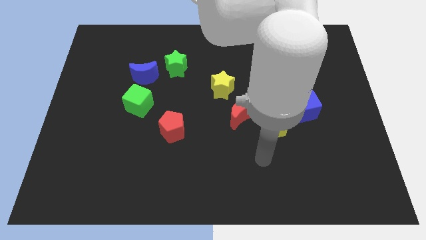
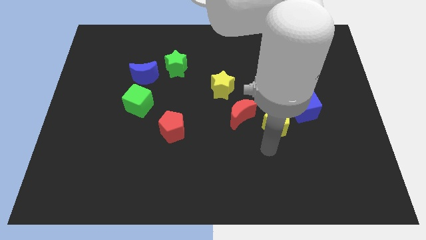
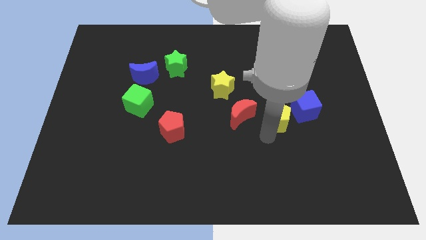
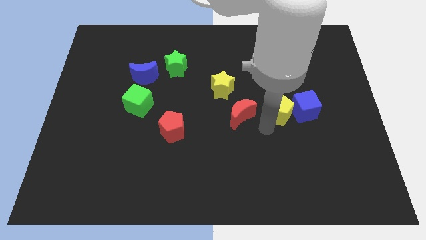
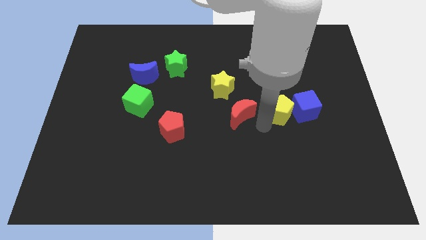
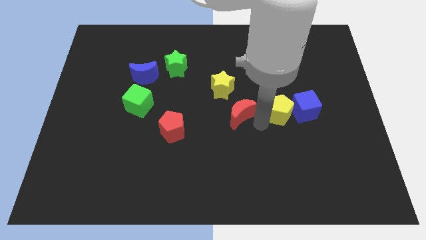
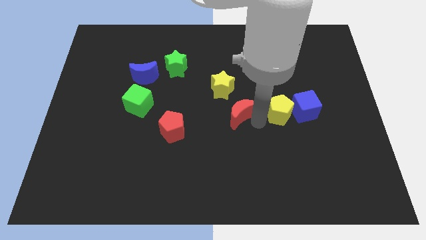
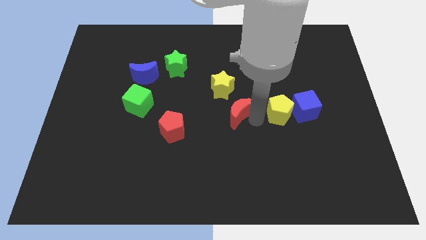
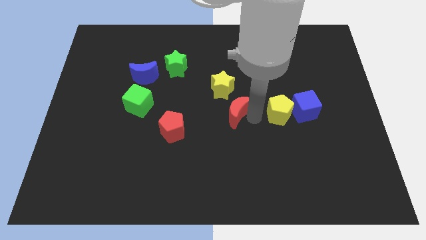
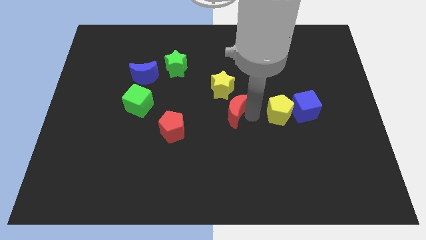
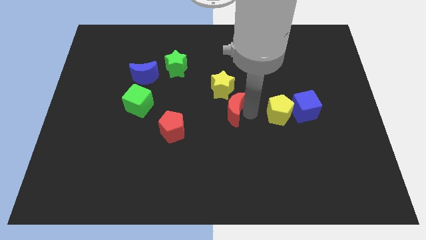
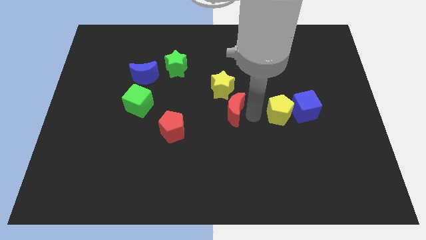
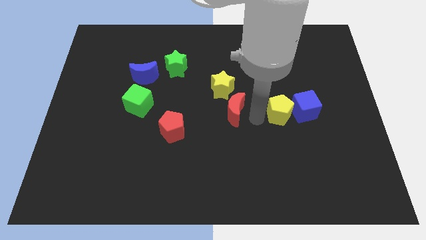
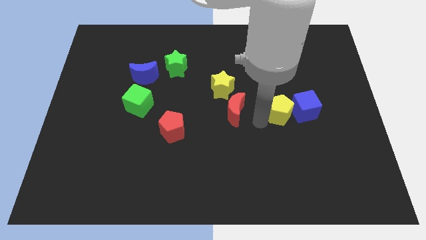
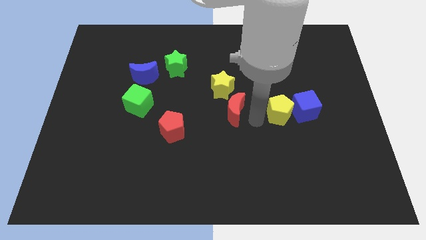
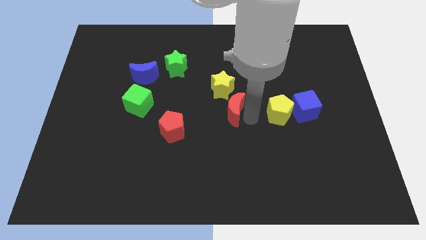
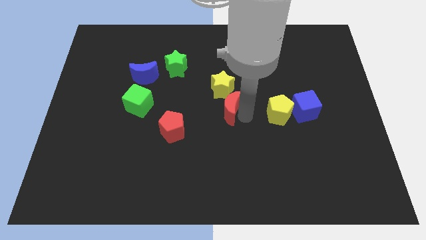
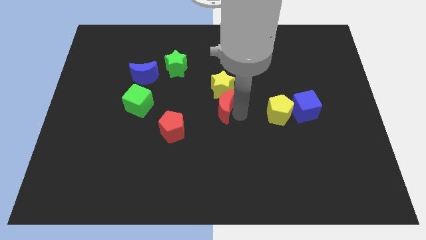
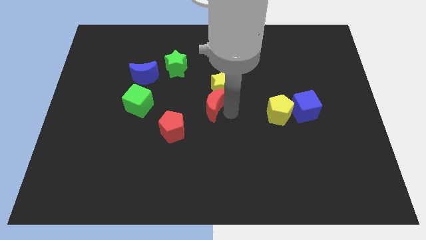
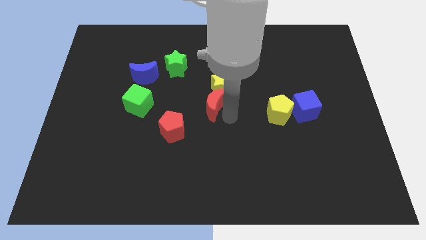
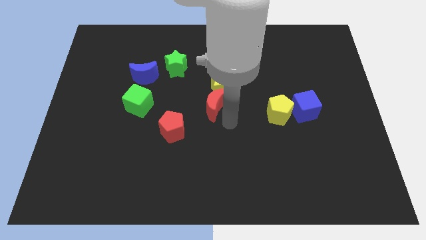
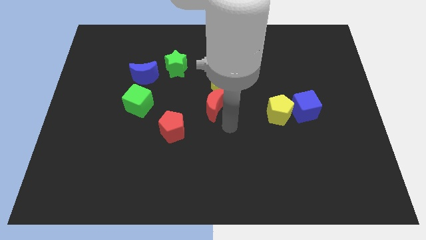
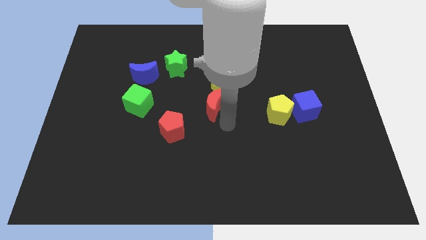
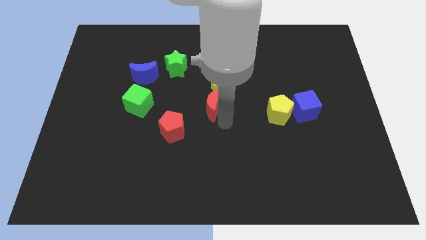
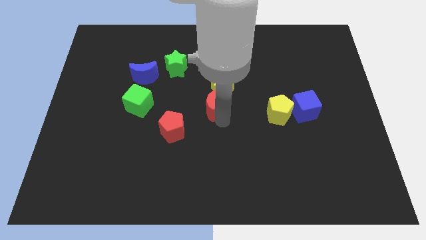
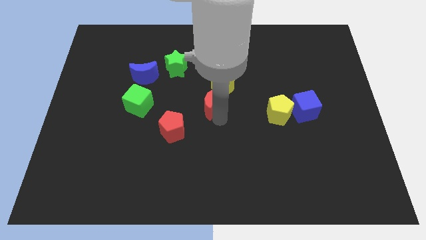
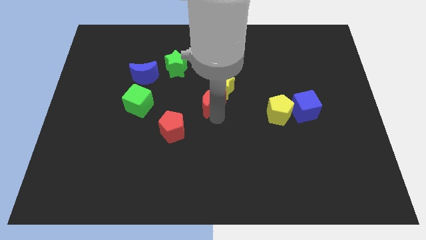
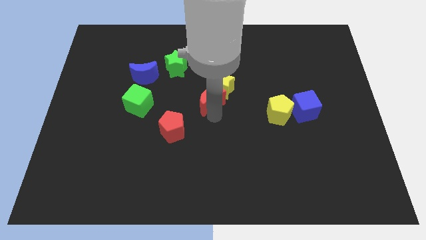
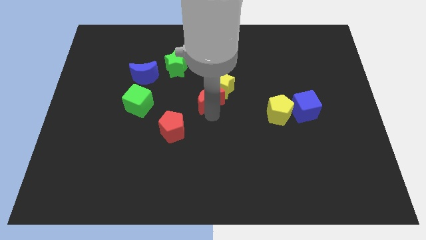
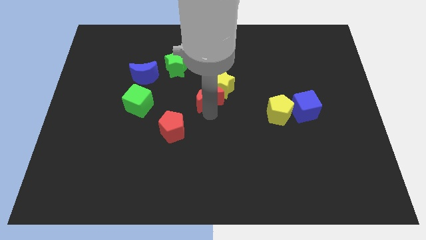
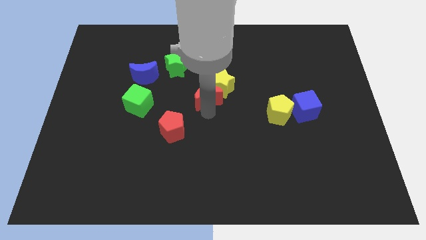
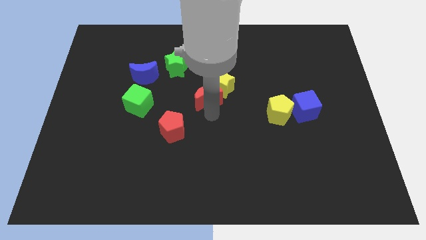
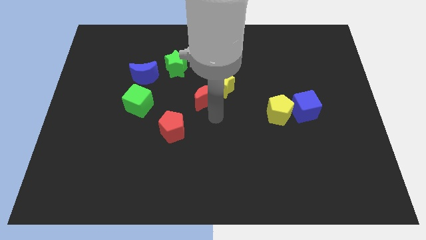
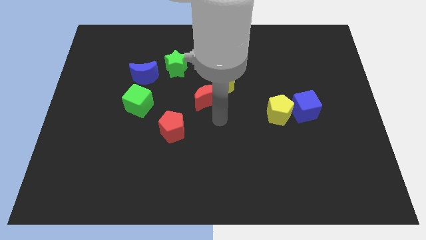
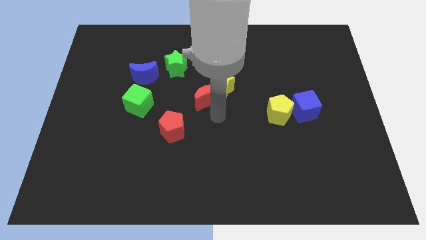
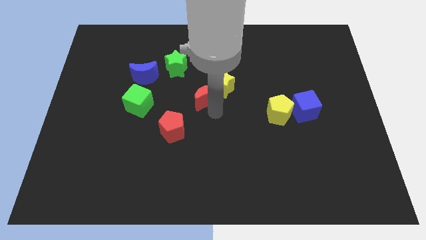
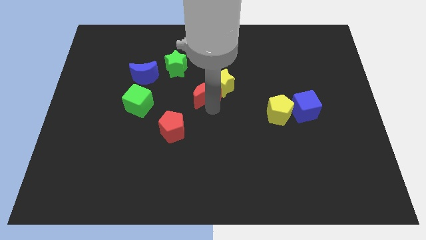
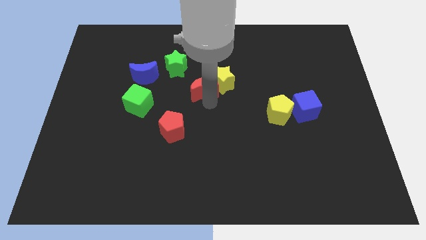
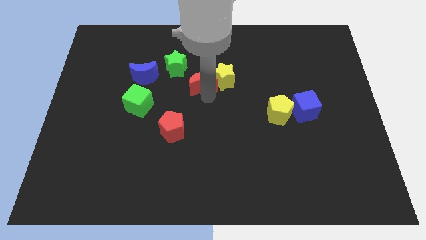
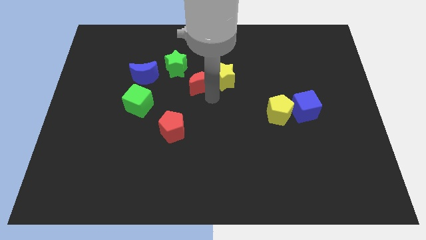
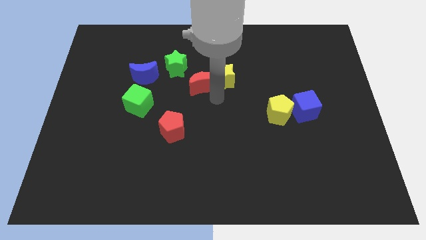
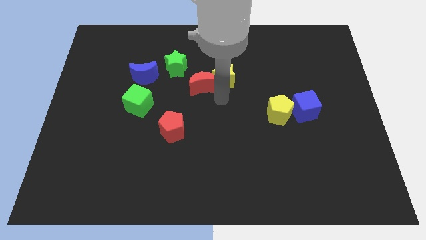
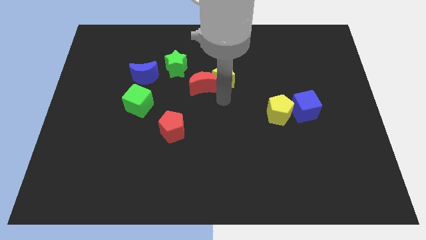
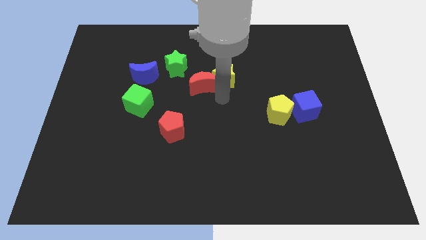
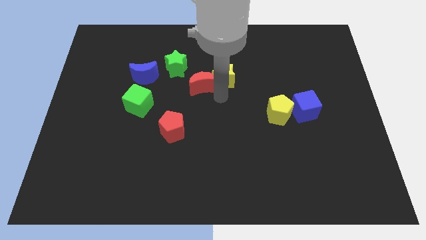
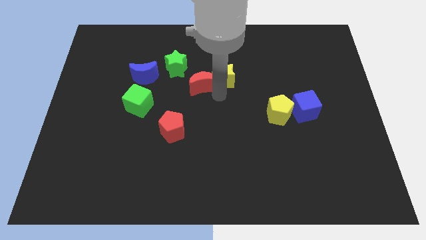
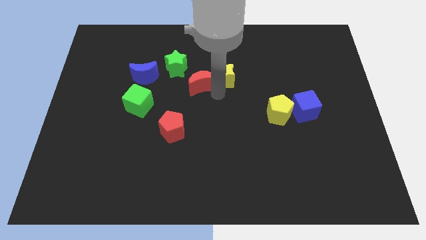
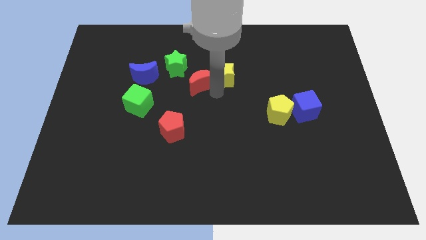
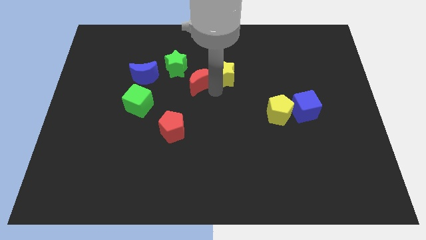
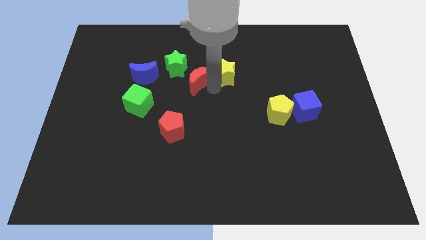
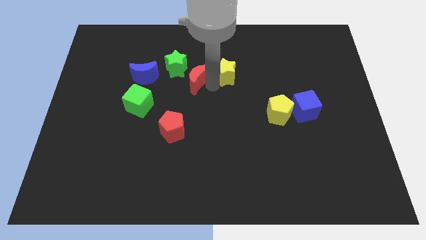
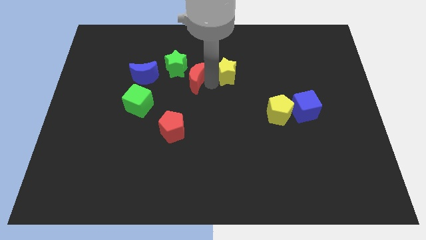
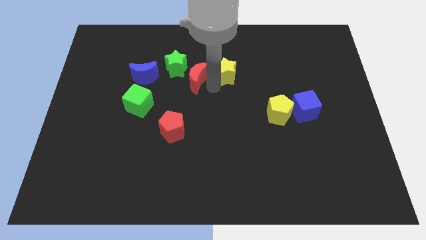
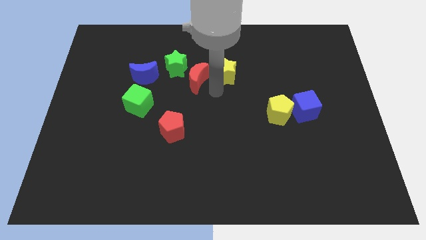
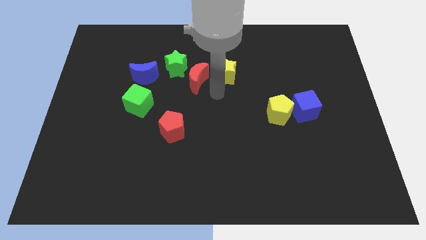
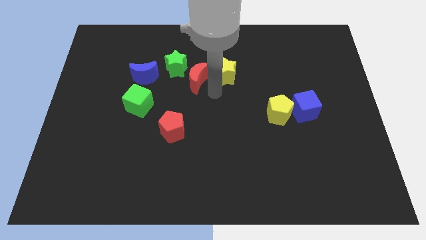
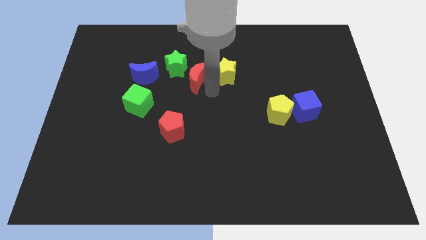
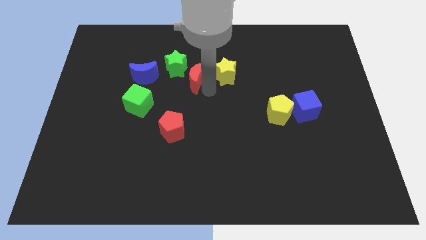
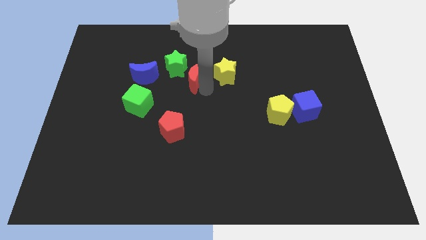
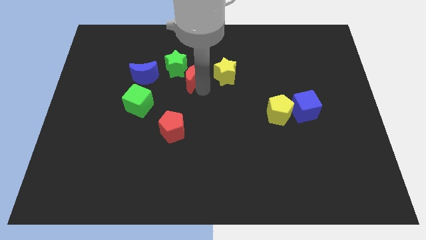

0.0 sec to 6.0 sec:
move the red moon to the green star

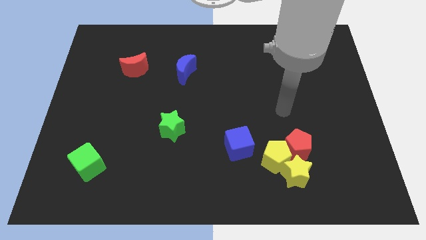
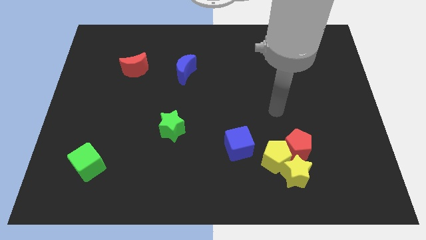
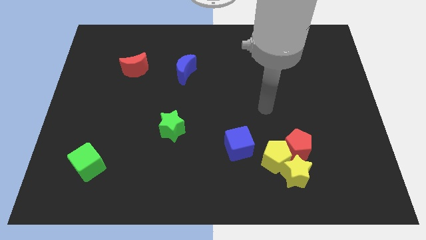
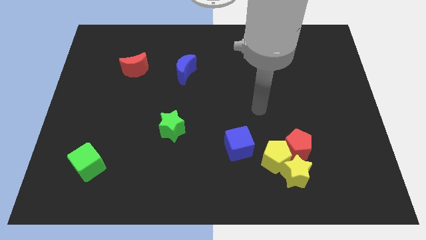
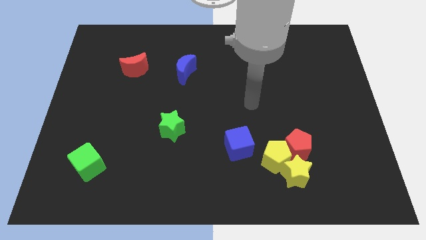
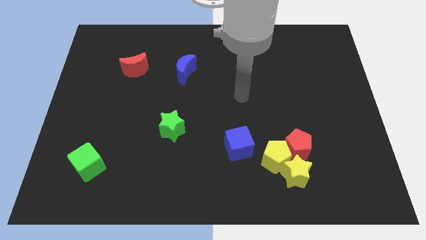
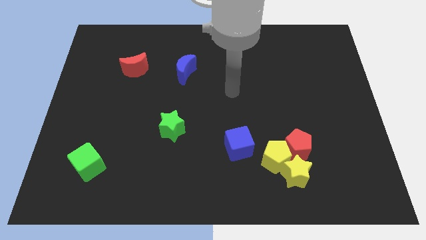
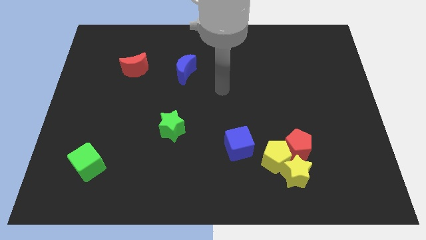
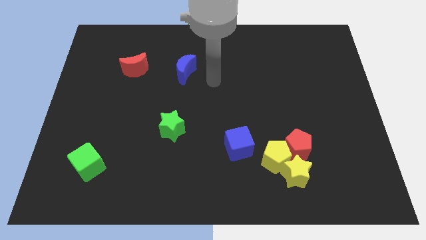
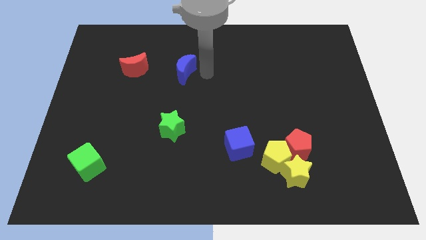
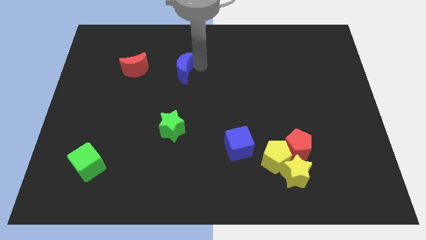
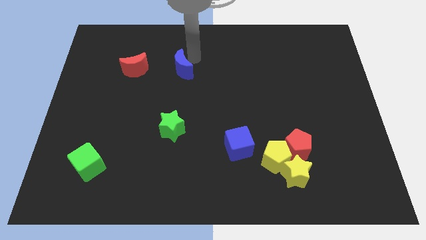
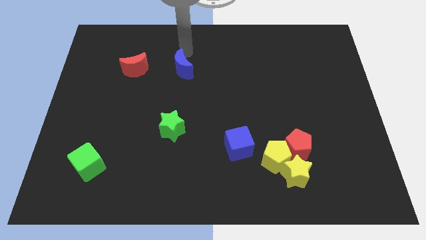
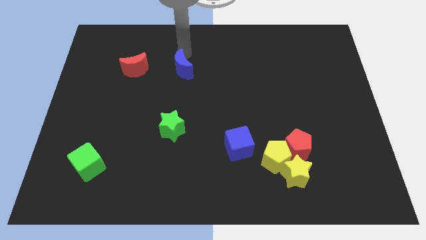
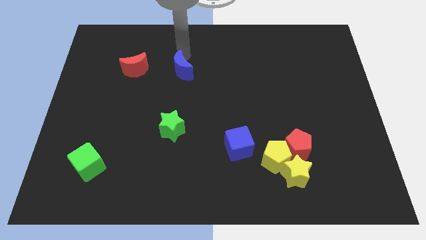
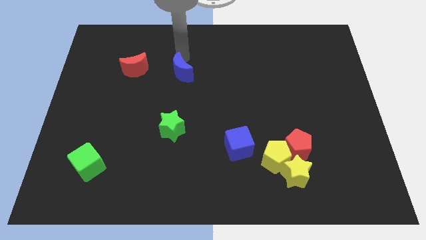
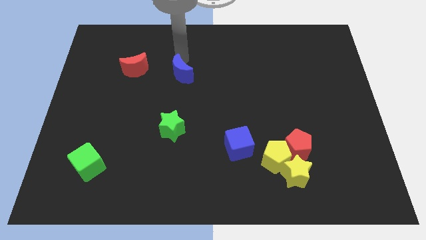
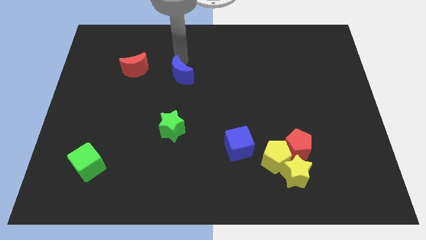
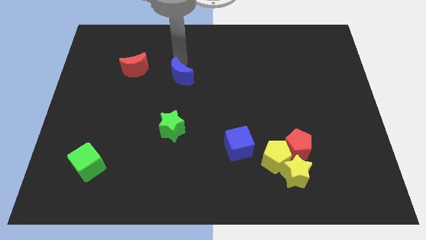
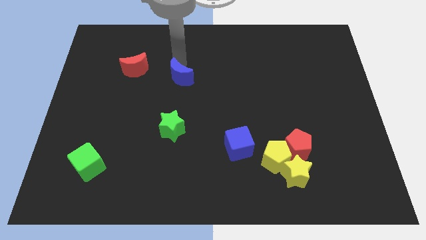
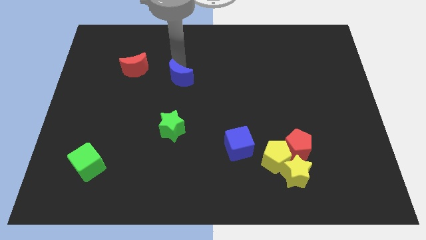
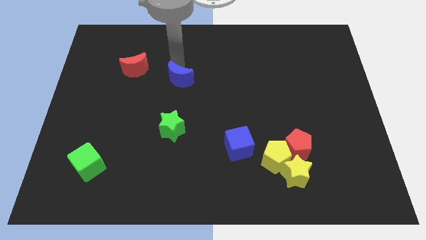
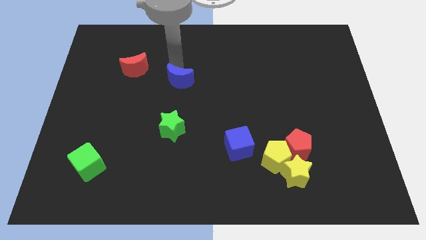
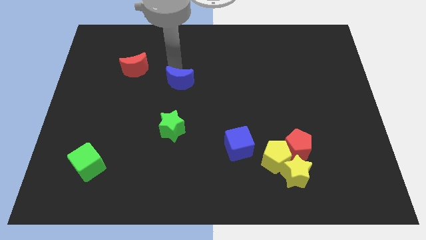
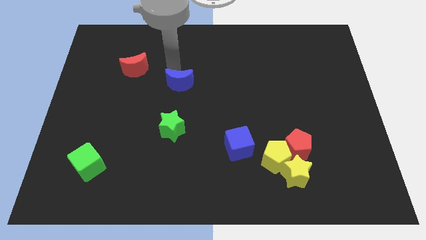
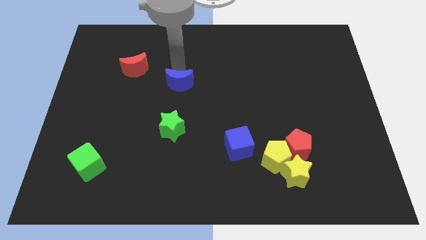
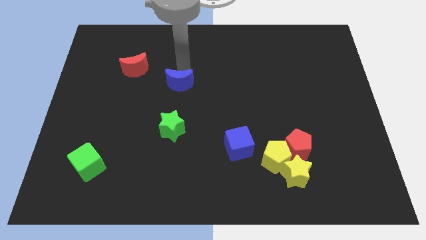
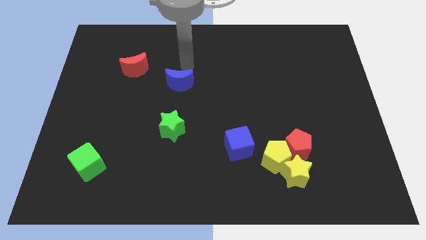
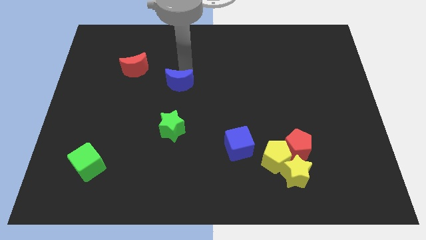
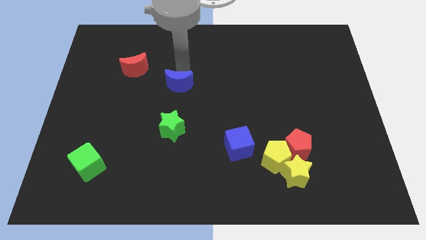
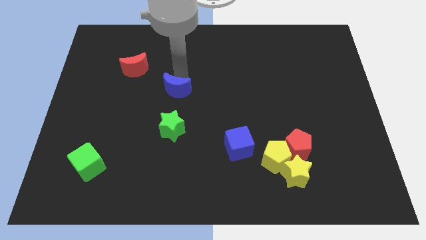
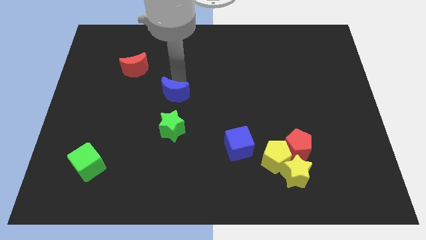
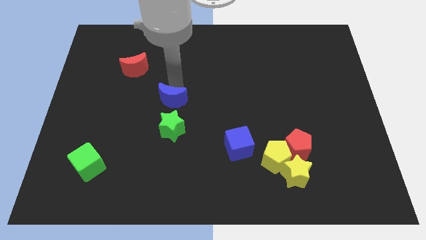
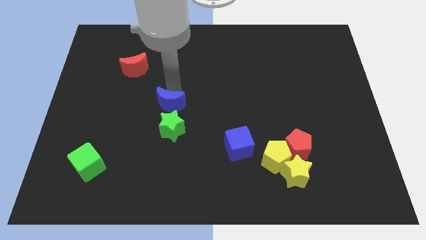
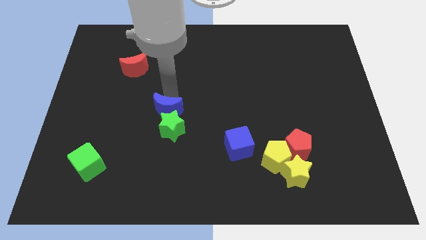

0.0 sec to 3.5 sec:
push the blue moon towards the green star
